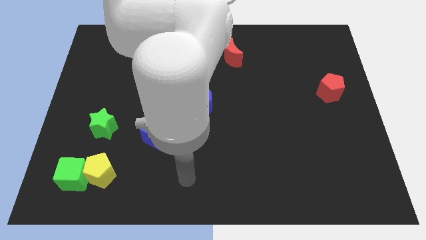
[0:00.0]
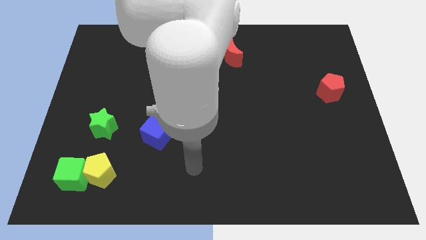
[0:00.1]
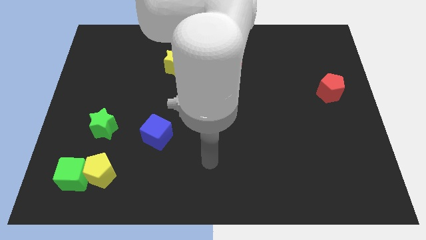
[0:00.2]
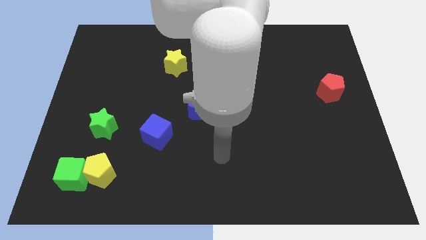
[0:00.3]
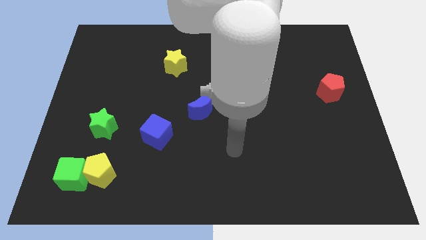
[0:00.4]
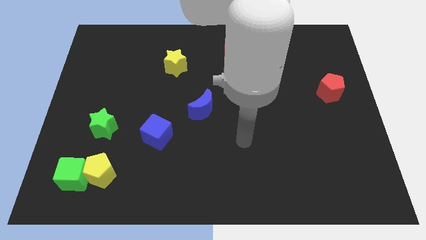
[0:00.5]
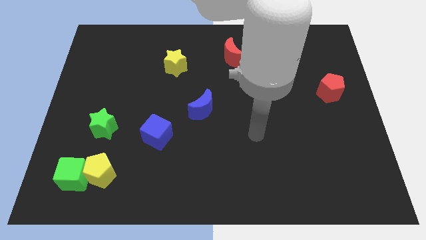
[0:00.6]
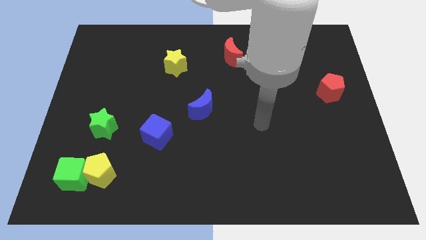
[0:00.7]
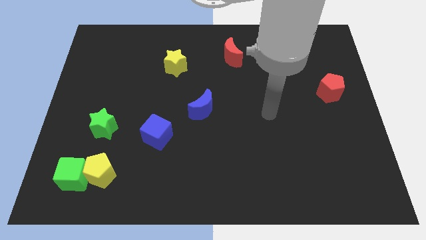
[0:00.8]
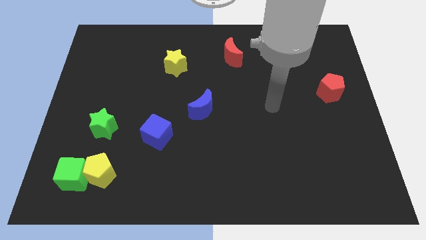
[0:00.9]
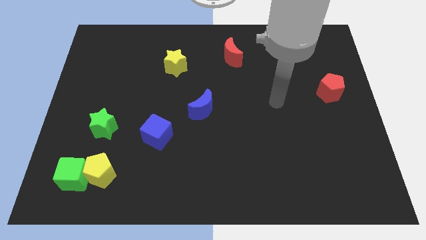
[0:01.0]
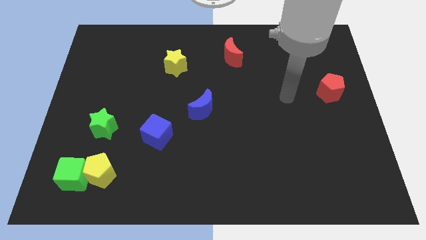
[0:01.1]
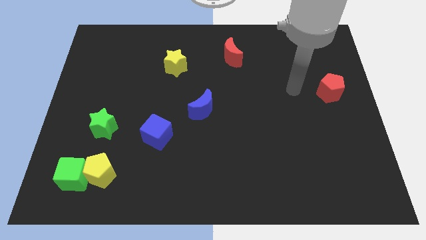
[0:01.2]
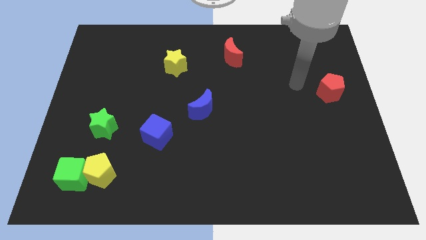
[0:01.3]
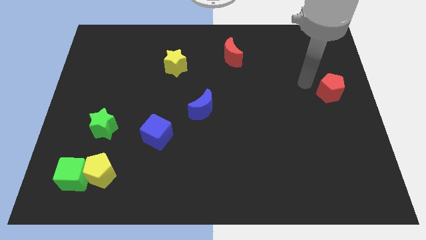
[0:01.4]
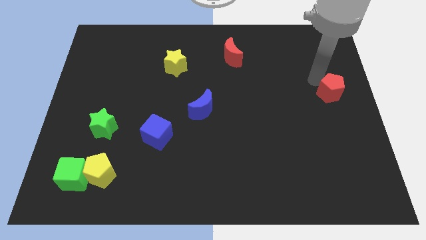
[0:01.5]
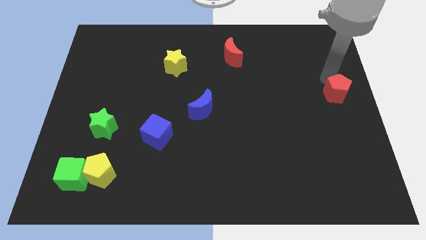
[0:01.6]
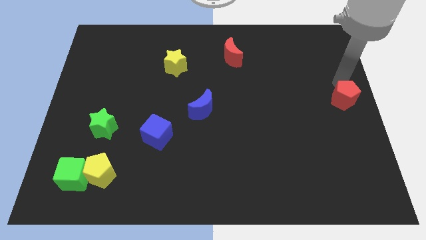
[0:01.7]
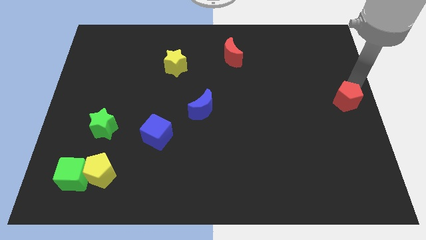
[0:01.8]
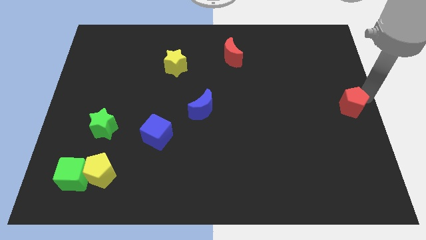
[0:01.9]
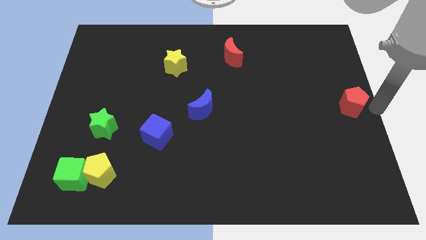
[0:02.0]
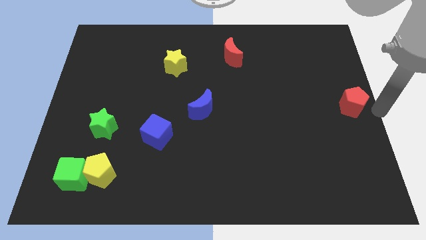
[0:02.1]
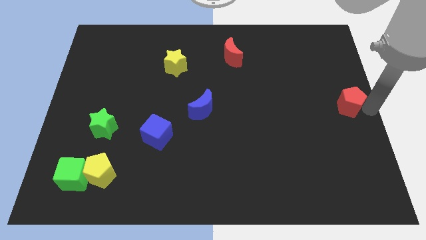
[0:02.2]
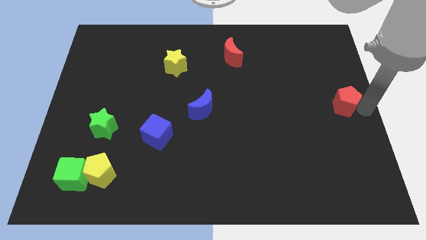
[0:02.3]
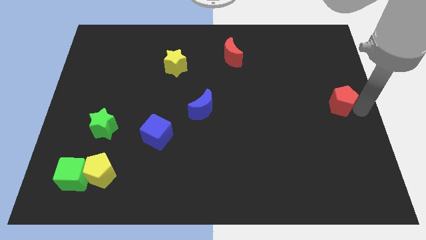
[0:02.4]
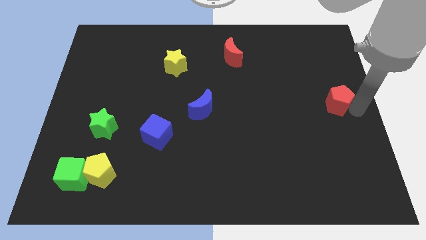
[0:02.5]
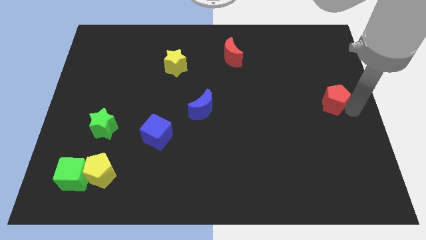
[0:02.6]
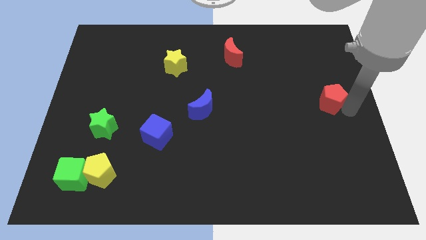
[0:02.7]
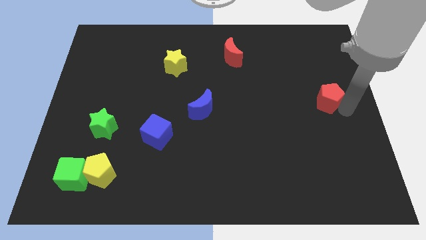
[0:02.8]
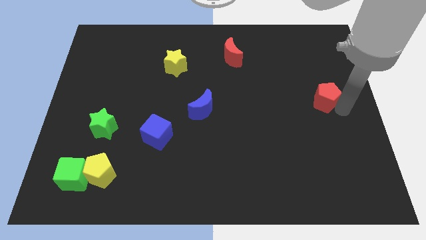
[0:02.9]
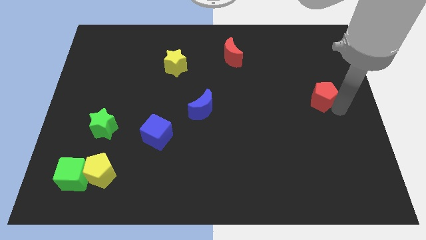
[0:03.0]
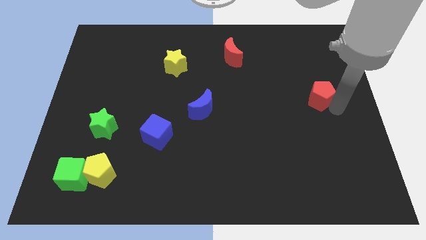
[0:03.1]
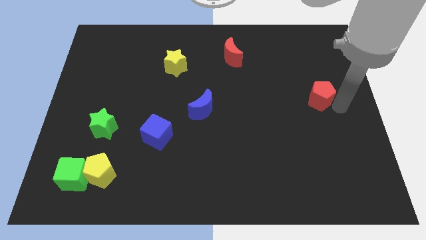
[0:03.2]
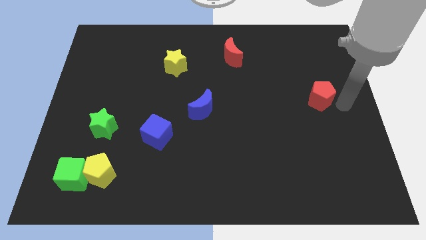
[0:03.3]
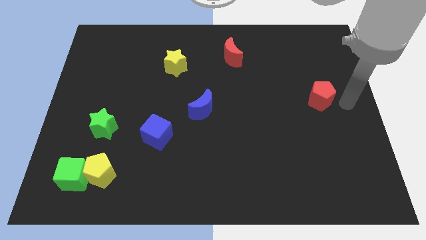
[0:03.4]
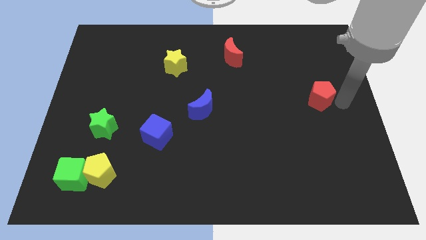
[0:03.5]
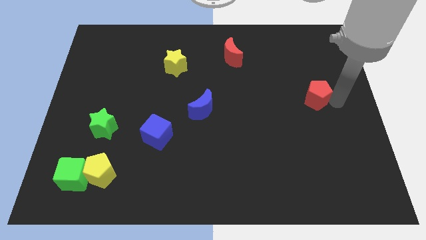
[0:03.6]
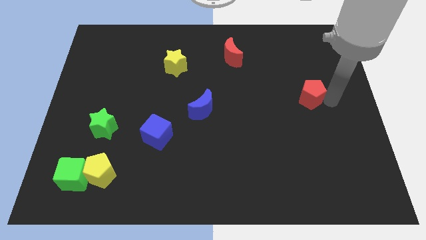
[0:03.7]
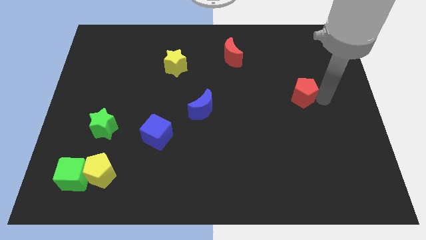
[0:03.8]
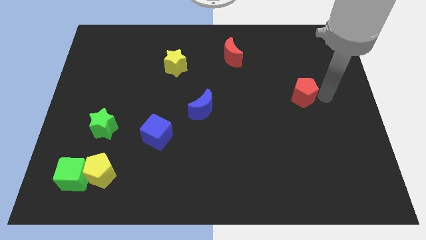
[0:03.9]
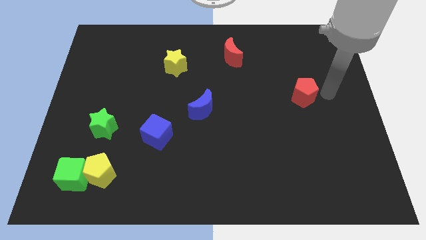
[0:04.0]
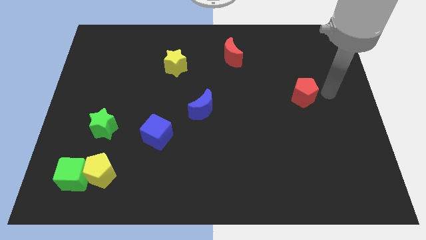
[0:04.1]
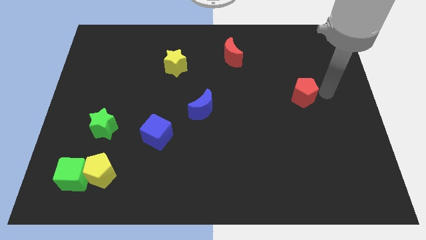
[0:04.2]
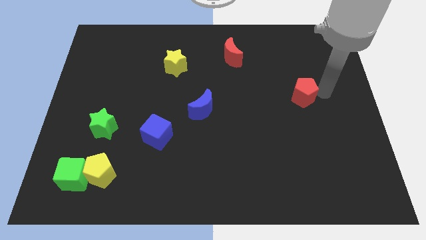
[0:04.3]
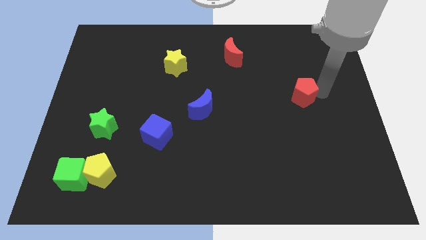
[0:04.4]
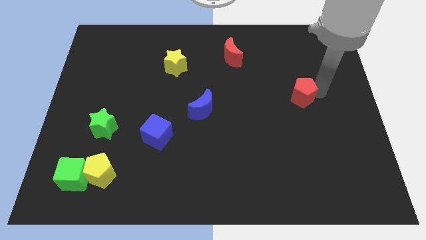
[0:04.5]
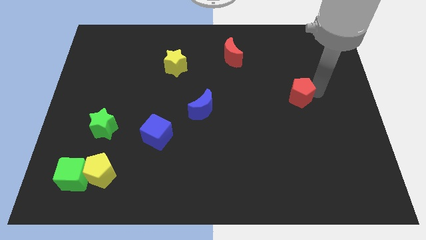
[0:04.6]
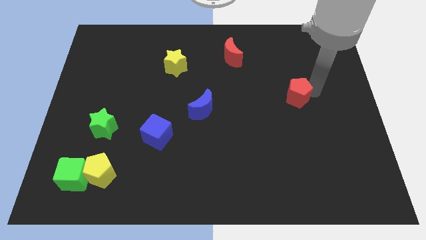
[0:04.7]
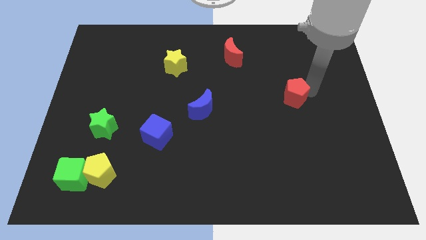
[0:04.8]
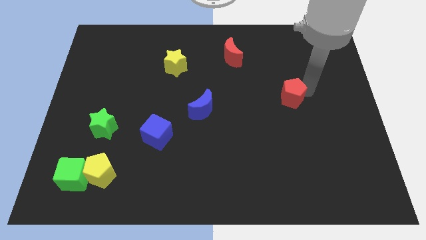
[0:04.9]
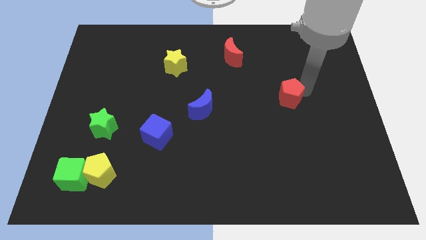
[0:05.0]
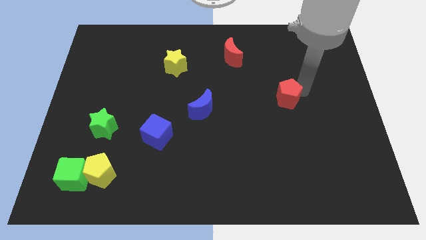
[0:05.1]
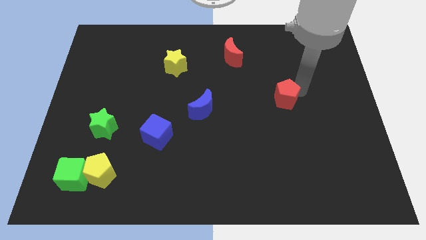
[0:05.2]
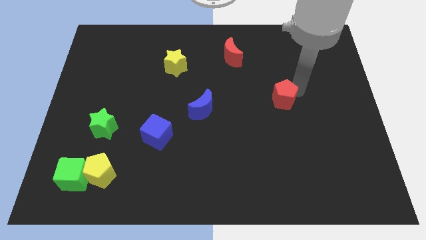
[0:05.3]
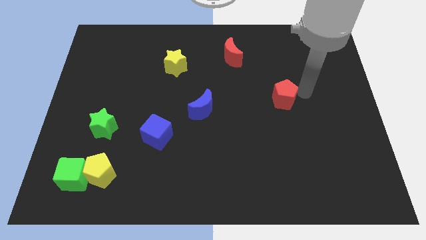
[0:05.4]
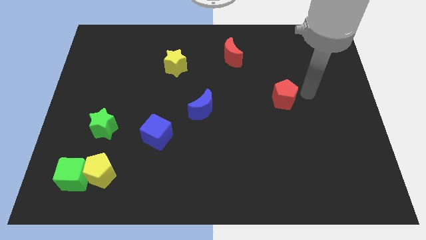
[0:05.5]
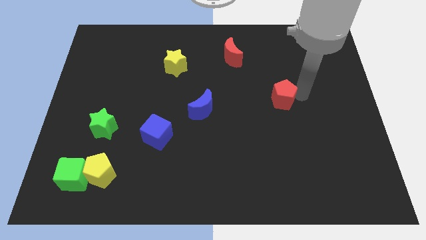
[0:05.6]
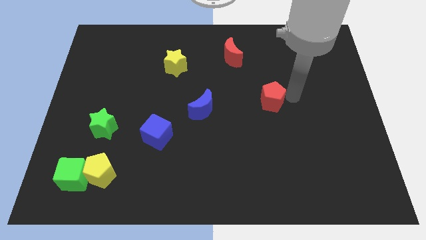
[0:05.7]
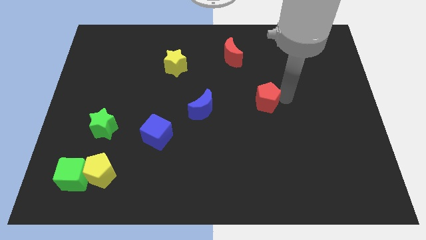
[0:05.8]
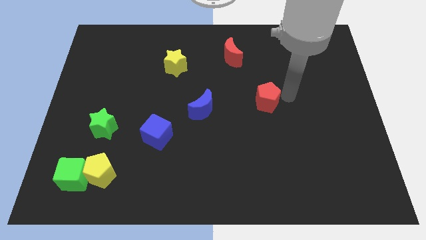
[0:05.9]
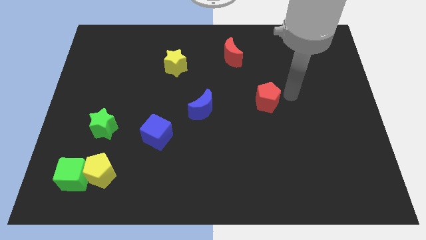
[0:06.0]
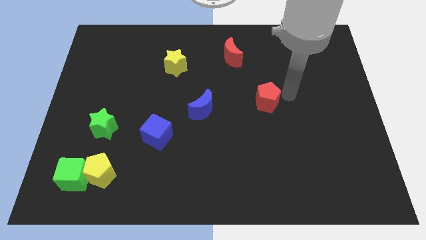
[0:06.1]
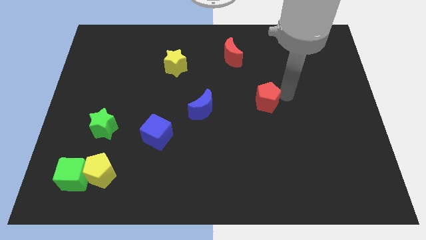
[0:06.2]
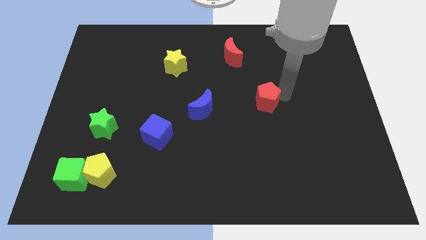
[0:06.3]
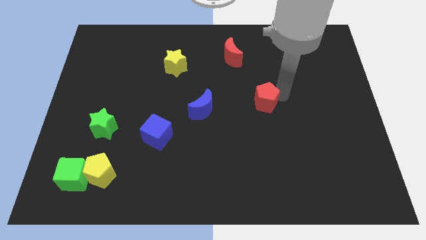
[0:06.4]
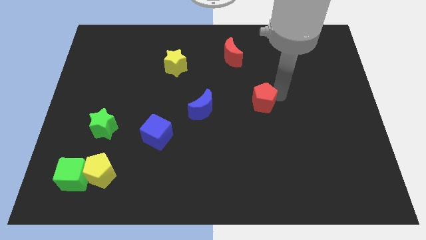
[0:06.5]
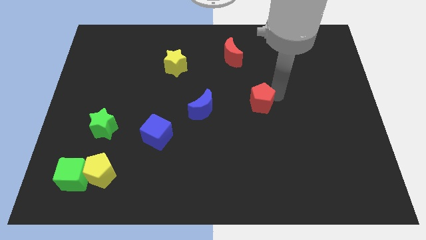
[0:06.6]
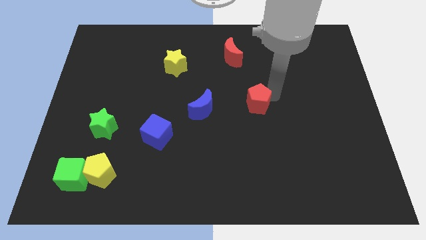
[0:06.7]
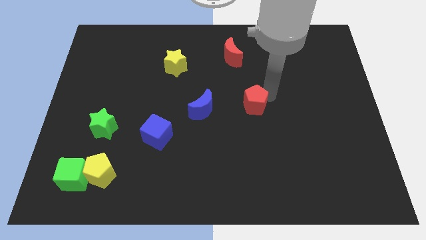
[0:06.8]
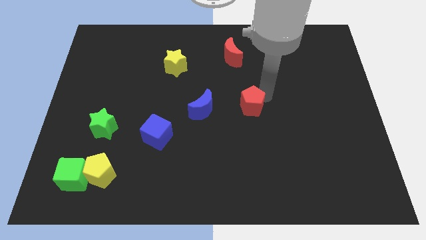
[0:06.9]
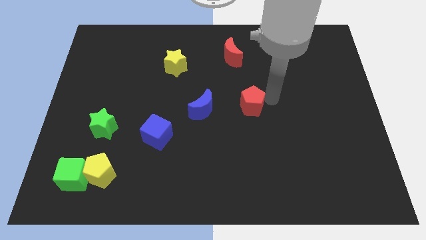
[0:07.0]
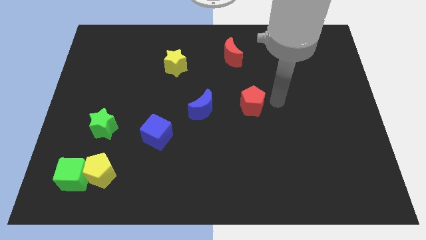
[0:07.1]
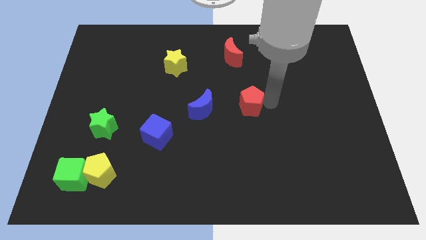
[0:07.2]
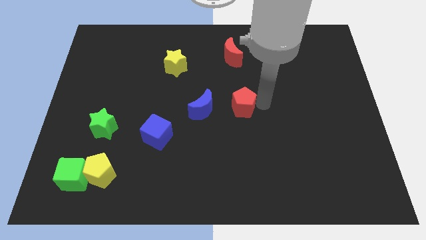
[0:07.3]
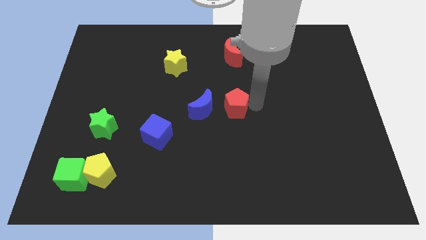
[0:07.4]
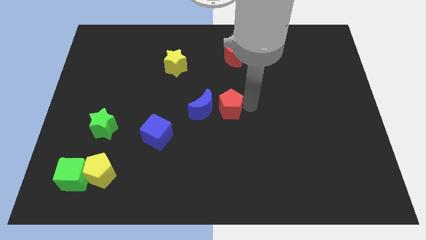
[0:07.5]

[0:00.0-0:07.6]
put the red pentagon towards the blue moon
